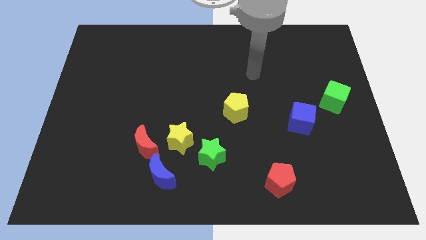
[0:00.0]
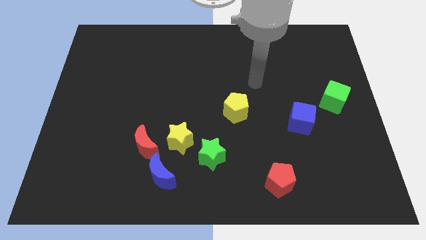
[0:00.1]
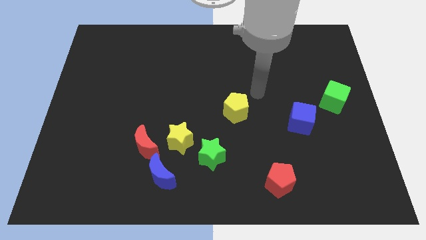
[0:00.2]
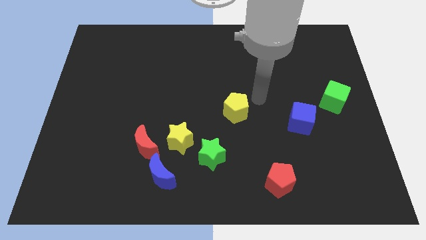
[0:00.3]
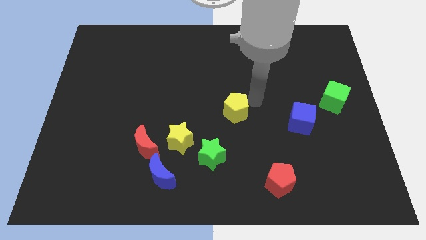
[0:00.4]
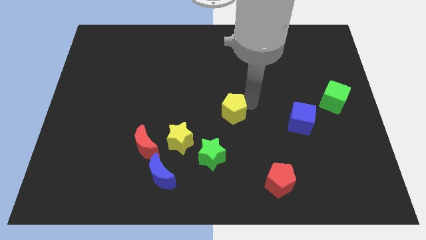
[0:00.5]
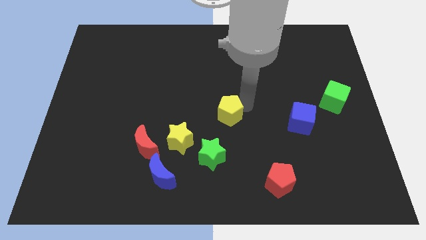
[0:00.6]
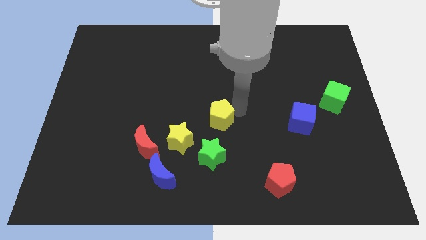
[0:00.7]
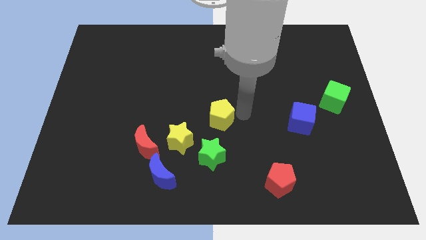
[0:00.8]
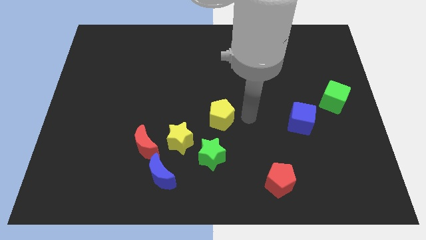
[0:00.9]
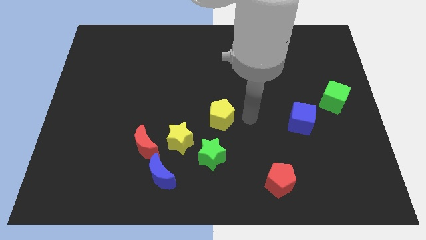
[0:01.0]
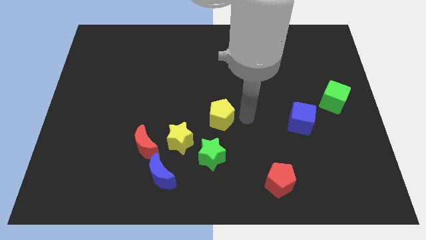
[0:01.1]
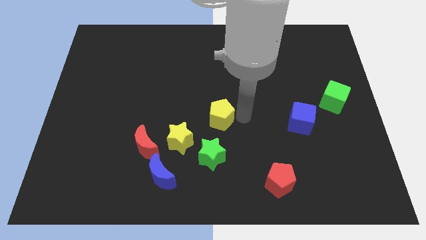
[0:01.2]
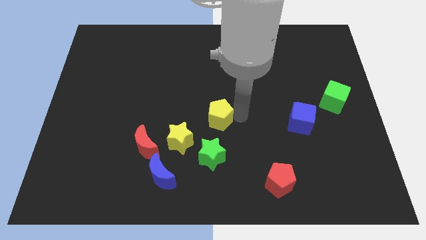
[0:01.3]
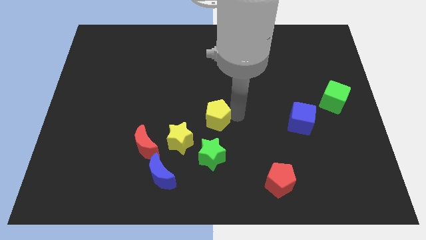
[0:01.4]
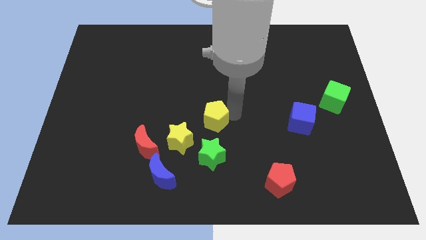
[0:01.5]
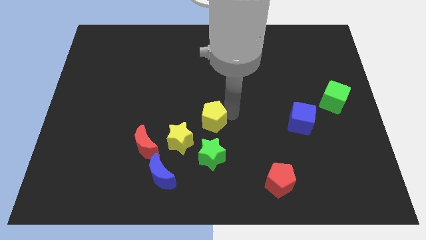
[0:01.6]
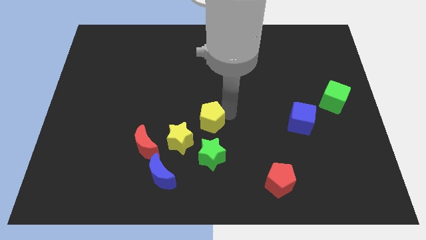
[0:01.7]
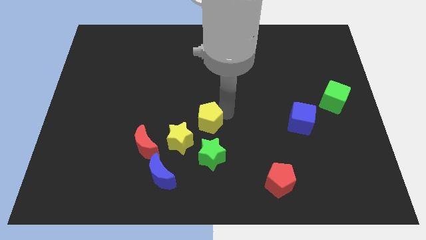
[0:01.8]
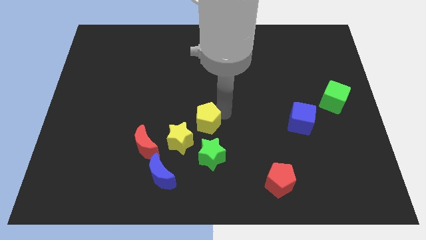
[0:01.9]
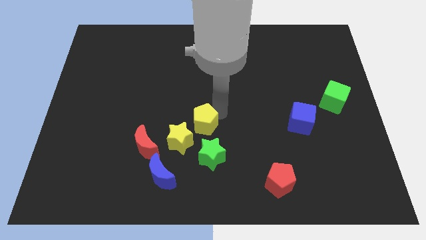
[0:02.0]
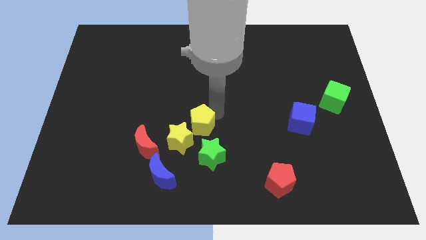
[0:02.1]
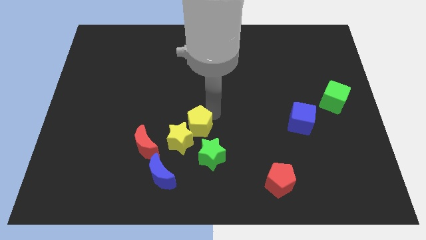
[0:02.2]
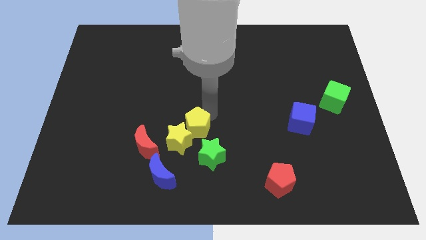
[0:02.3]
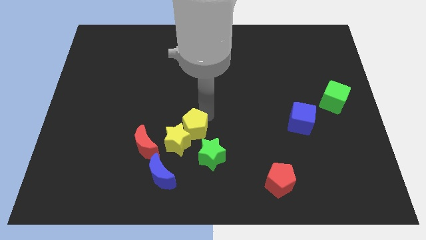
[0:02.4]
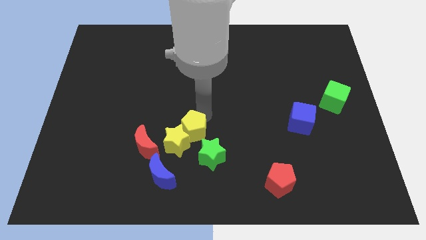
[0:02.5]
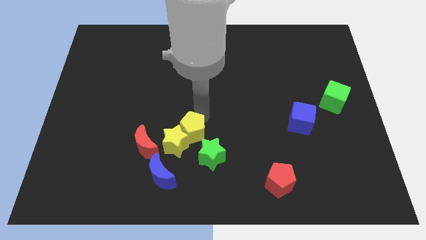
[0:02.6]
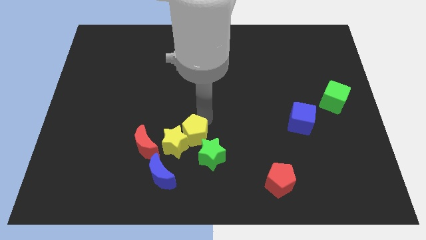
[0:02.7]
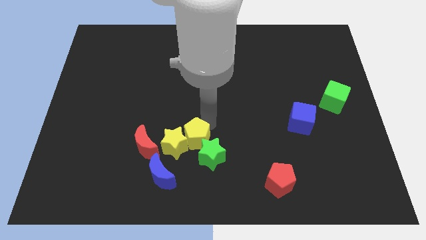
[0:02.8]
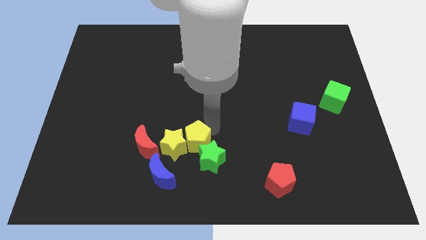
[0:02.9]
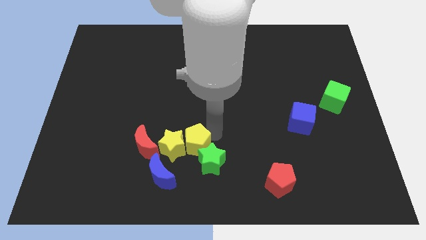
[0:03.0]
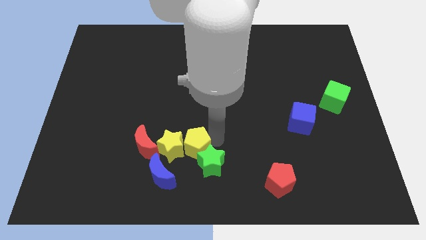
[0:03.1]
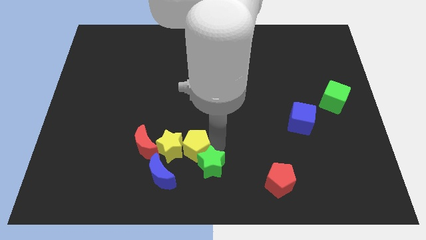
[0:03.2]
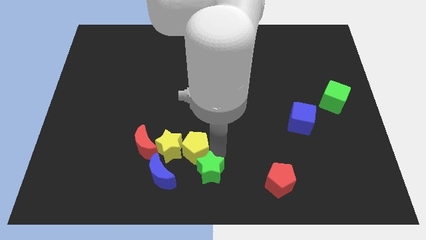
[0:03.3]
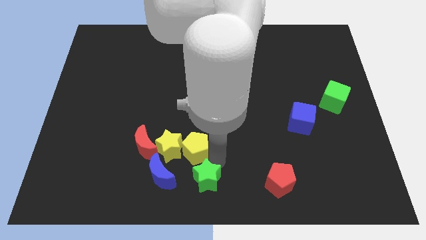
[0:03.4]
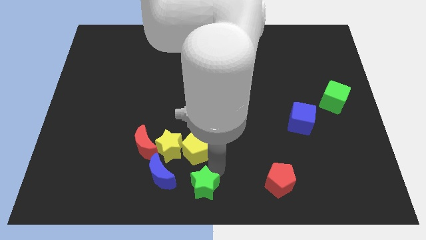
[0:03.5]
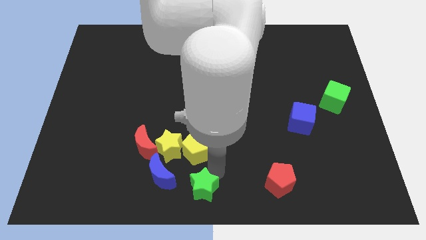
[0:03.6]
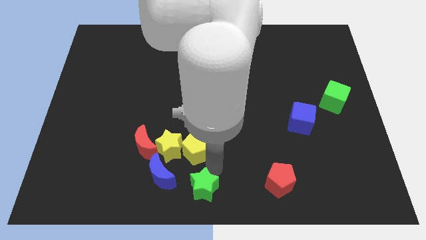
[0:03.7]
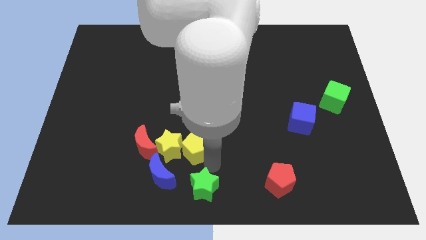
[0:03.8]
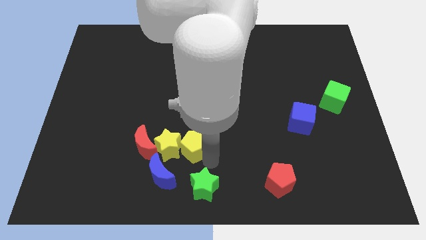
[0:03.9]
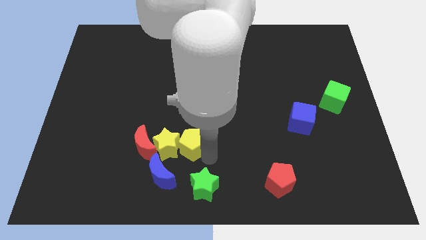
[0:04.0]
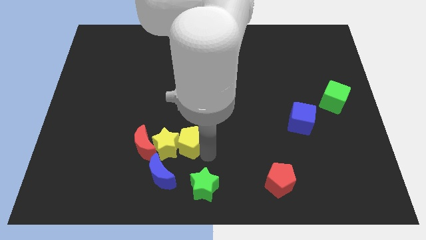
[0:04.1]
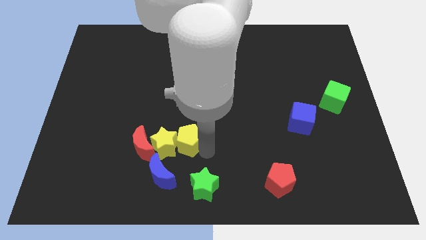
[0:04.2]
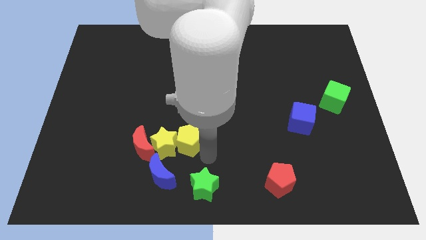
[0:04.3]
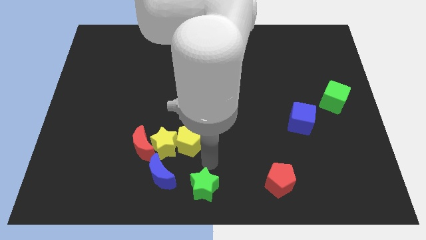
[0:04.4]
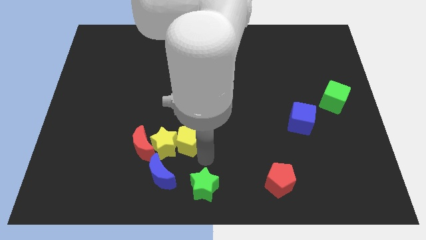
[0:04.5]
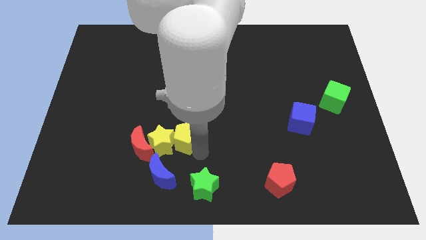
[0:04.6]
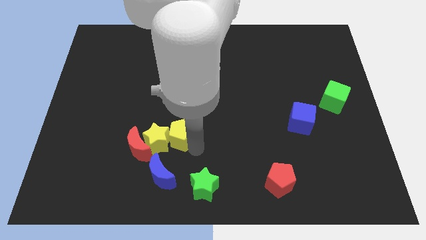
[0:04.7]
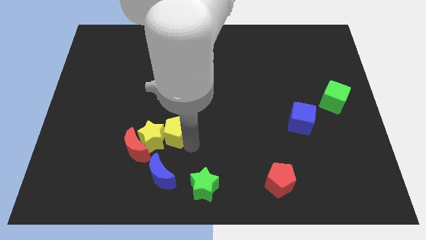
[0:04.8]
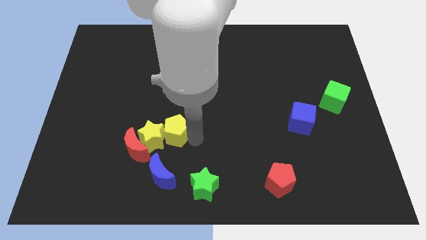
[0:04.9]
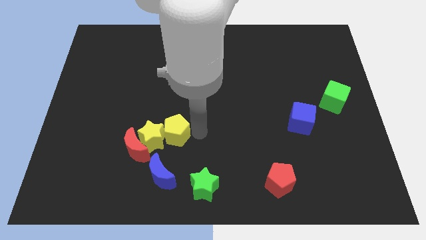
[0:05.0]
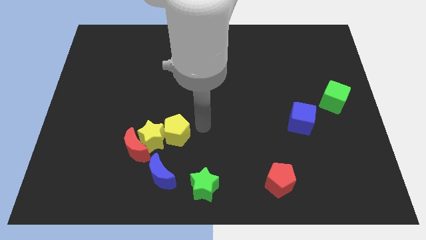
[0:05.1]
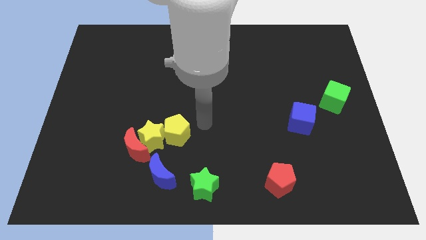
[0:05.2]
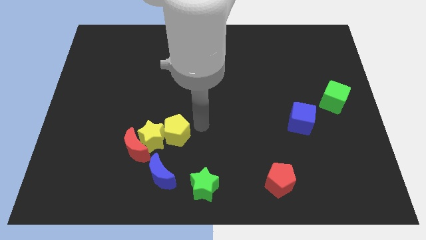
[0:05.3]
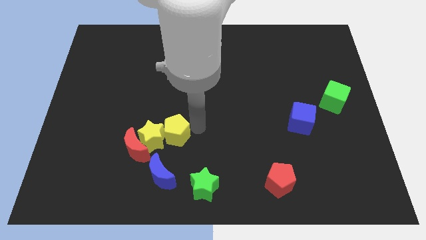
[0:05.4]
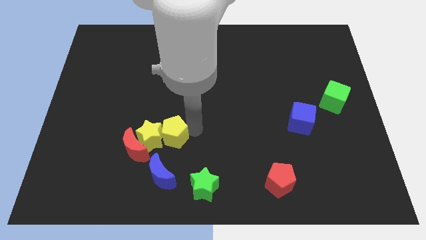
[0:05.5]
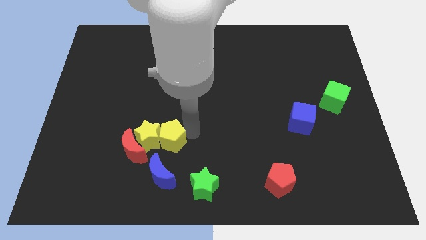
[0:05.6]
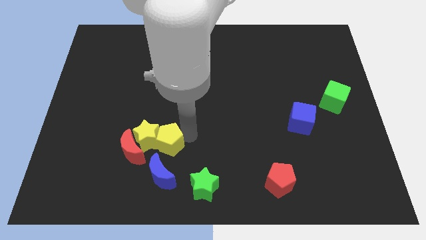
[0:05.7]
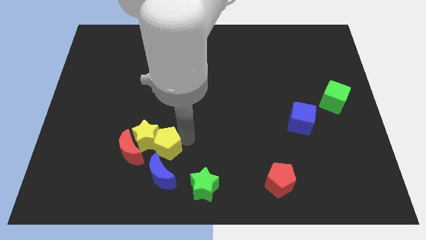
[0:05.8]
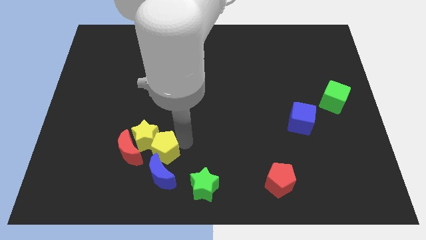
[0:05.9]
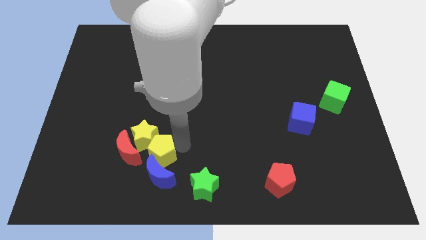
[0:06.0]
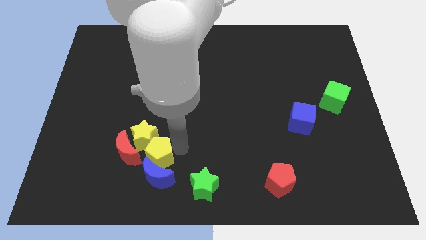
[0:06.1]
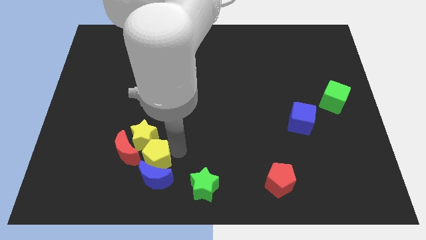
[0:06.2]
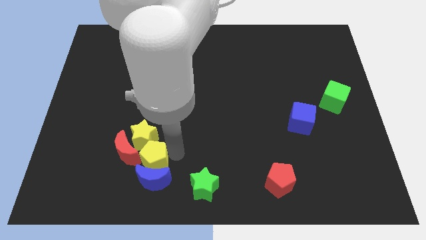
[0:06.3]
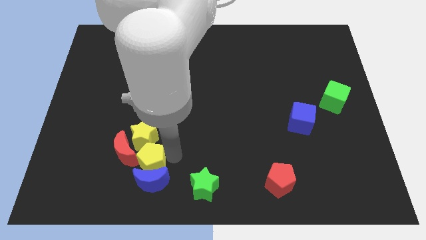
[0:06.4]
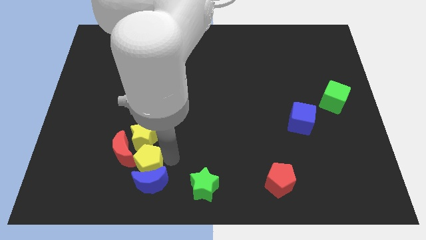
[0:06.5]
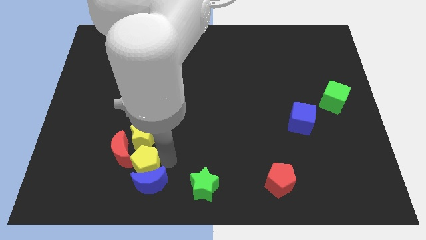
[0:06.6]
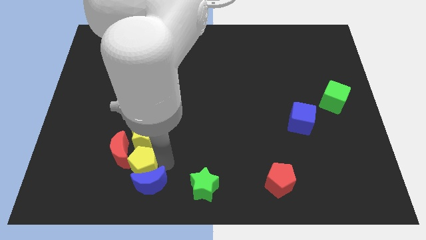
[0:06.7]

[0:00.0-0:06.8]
push the yellow pentagon towards the red moon

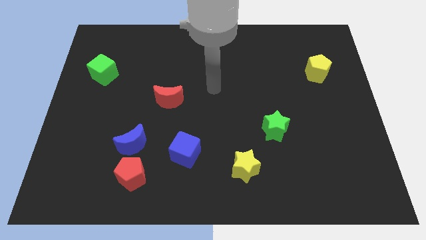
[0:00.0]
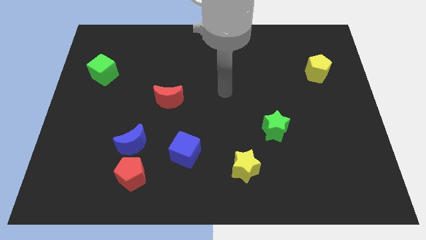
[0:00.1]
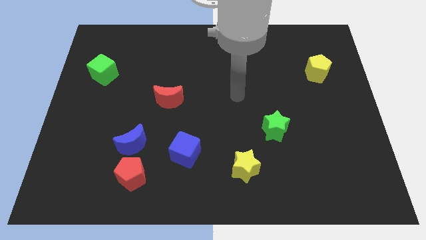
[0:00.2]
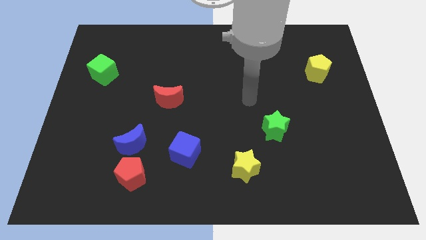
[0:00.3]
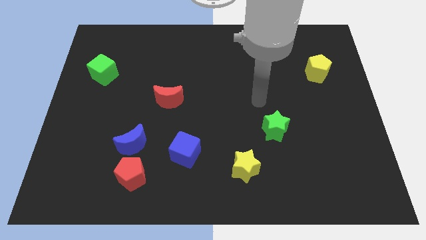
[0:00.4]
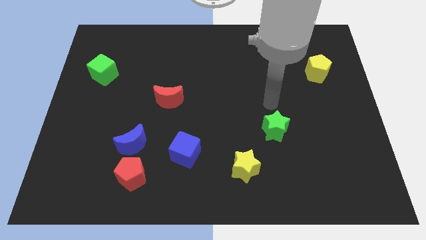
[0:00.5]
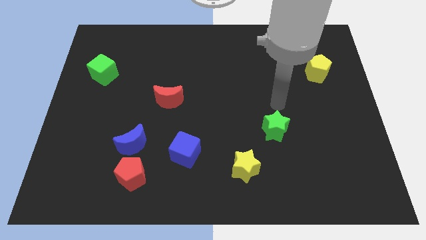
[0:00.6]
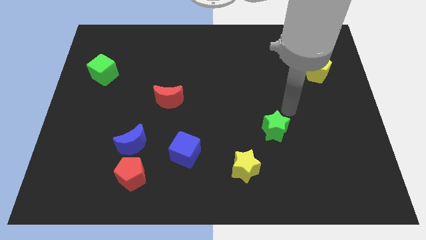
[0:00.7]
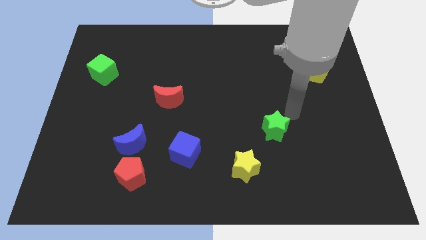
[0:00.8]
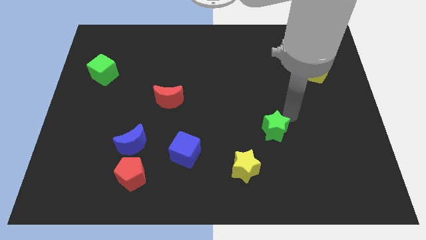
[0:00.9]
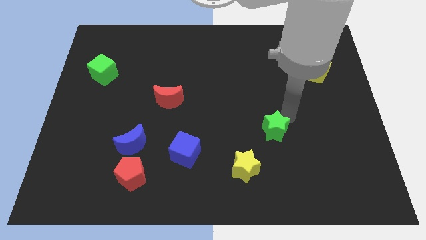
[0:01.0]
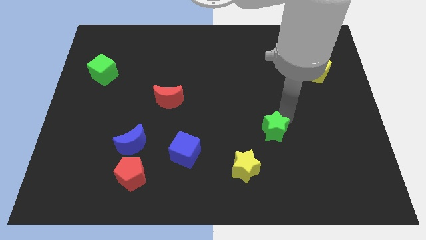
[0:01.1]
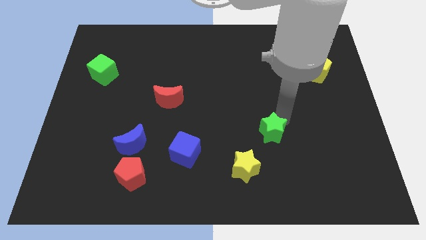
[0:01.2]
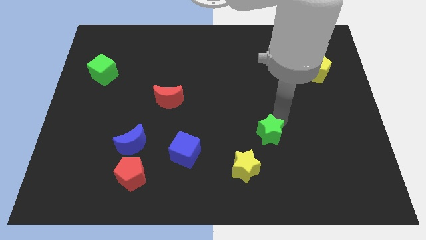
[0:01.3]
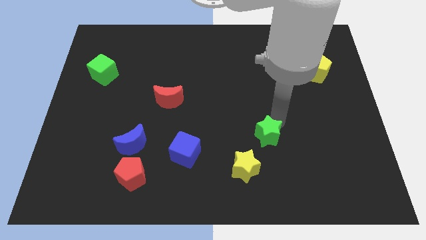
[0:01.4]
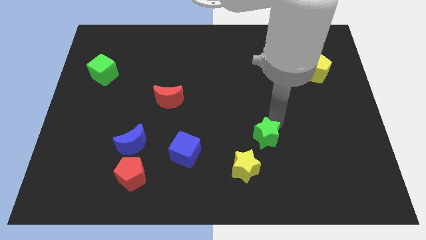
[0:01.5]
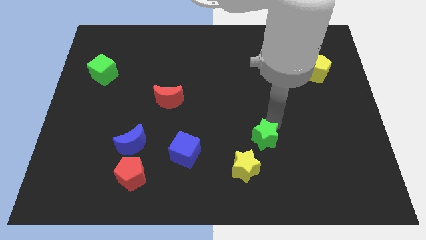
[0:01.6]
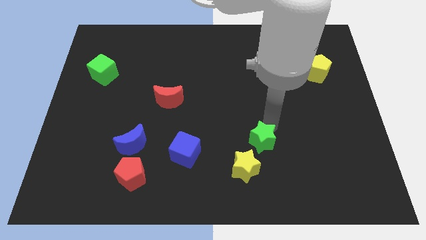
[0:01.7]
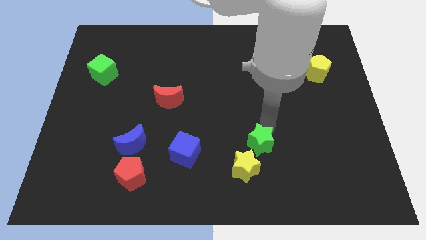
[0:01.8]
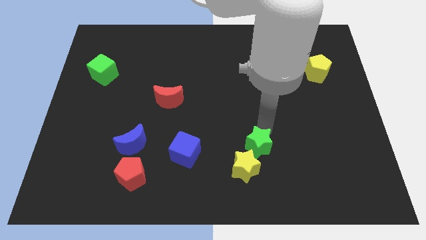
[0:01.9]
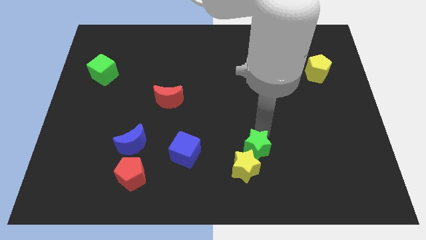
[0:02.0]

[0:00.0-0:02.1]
push the green star to the yellow star
